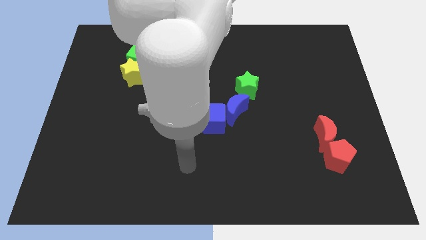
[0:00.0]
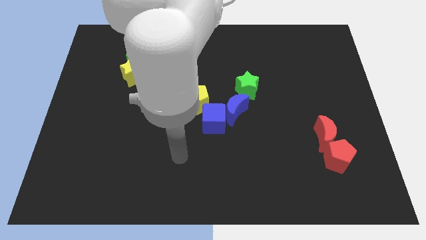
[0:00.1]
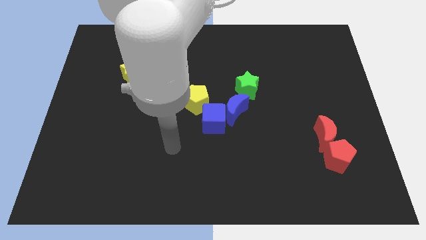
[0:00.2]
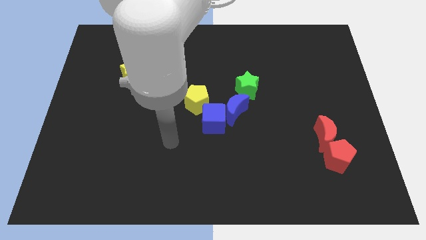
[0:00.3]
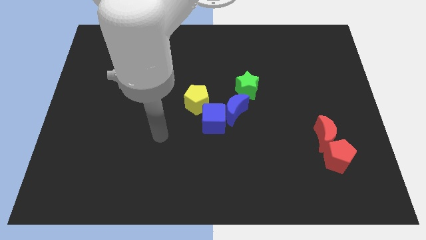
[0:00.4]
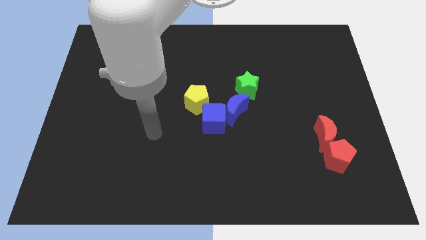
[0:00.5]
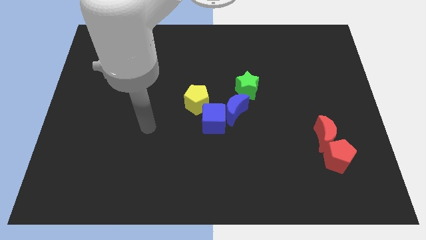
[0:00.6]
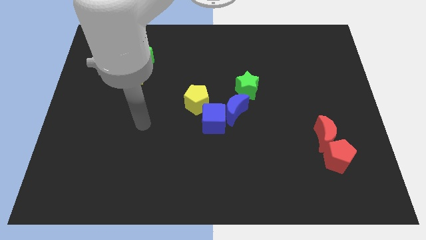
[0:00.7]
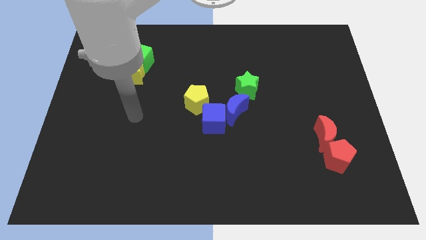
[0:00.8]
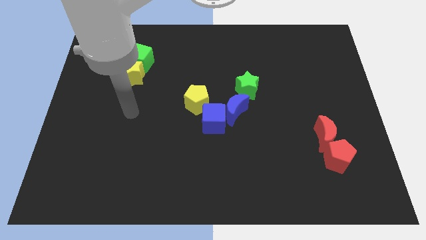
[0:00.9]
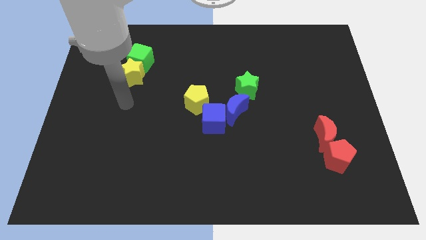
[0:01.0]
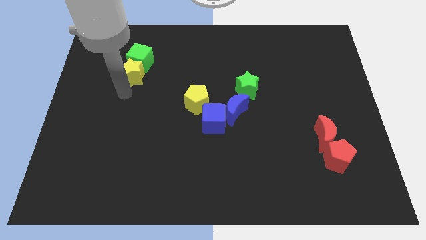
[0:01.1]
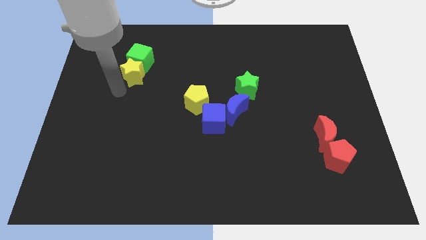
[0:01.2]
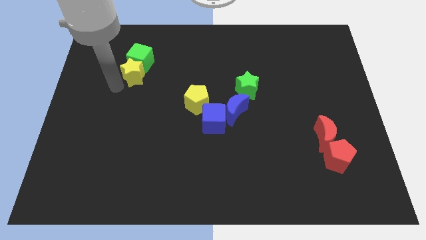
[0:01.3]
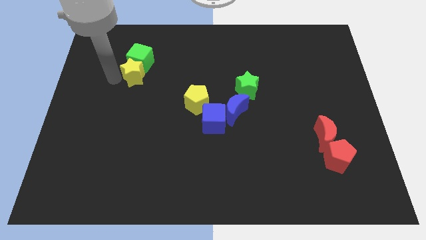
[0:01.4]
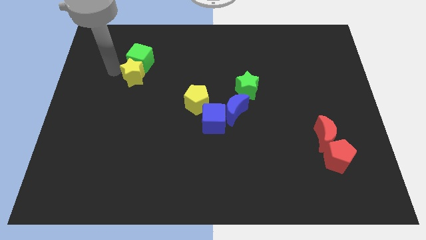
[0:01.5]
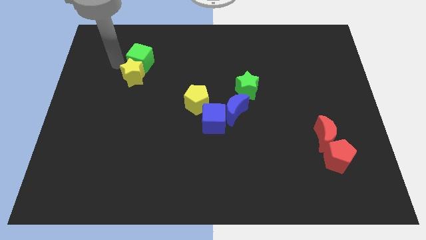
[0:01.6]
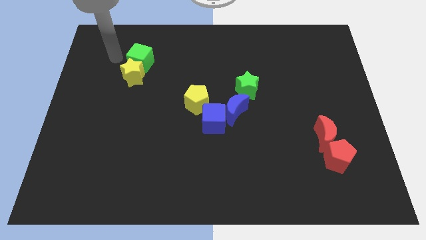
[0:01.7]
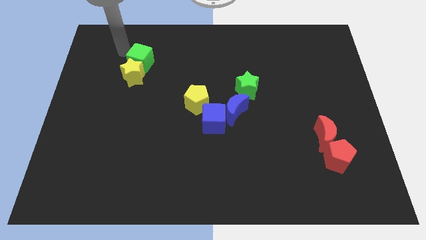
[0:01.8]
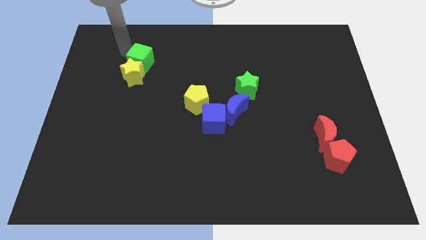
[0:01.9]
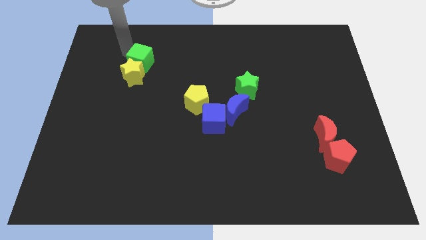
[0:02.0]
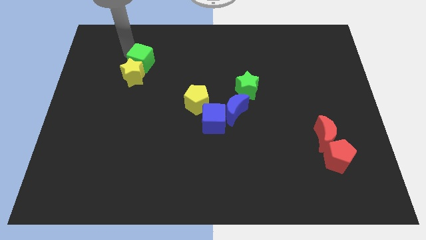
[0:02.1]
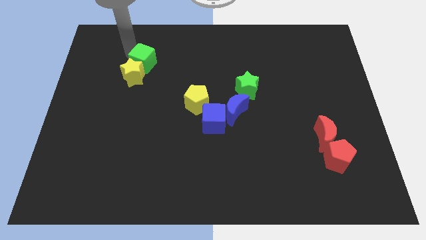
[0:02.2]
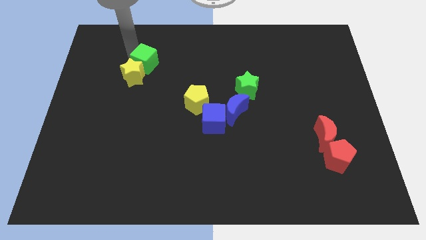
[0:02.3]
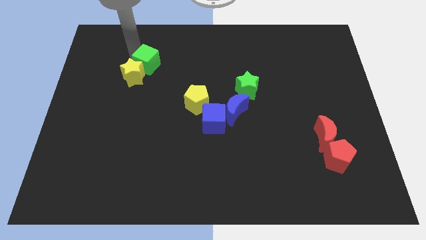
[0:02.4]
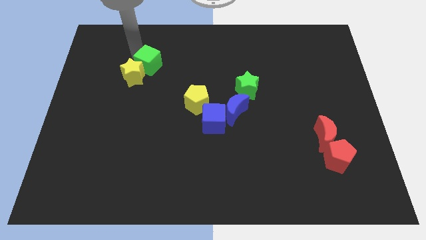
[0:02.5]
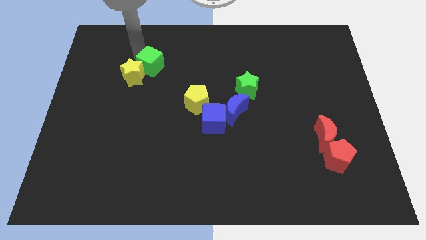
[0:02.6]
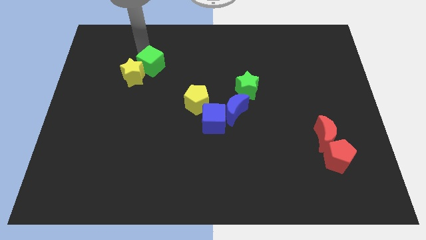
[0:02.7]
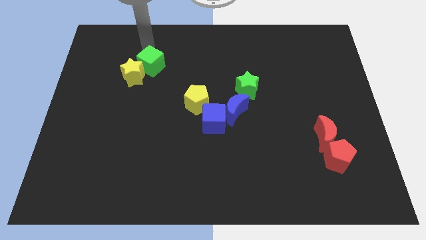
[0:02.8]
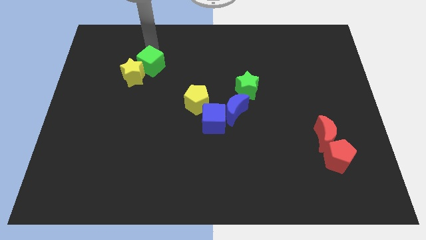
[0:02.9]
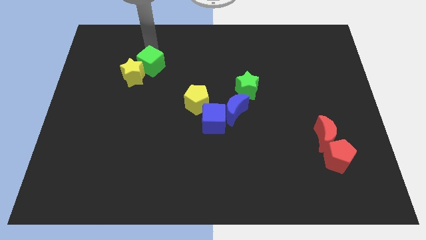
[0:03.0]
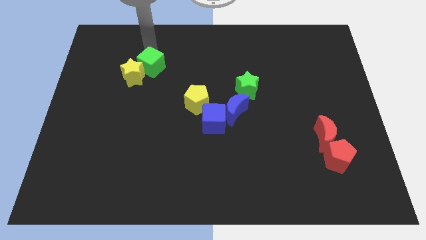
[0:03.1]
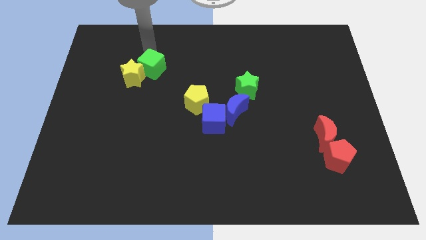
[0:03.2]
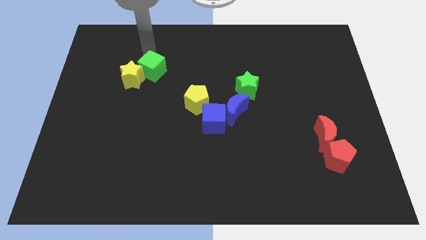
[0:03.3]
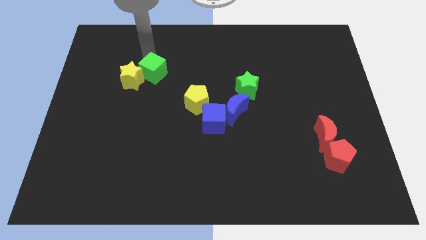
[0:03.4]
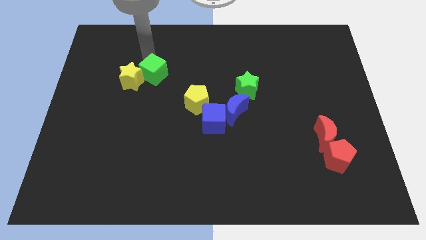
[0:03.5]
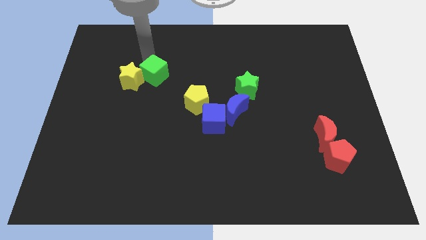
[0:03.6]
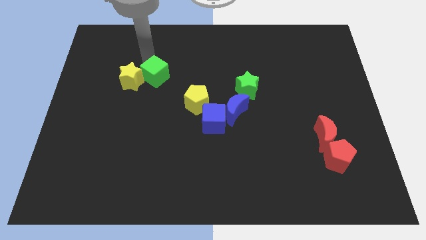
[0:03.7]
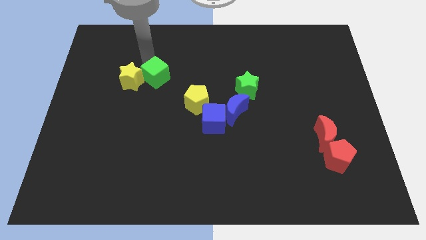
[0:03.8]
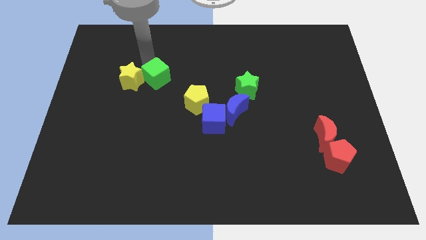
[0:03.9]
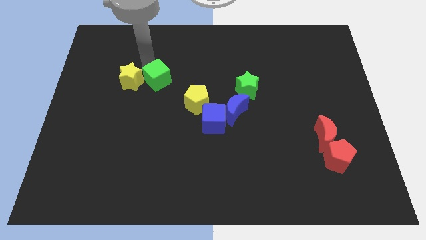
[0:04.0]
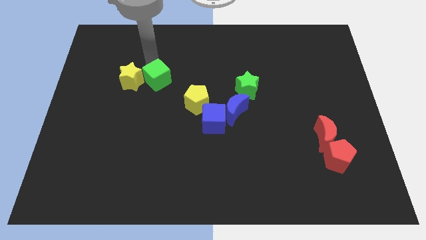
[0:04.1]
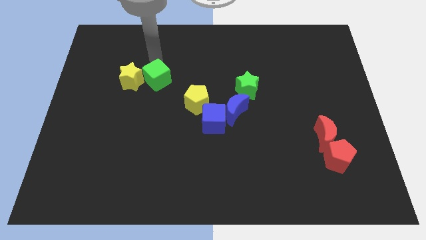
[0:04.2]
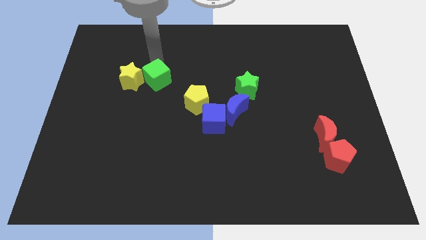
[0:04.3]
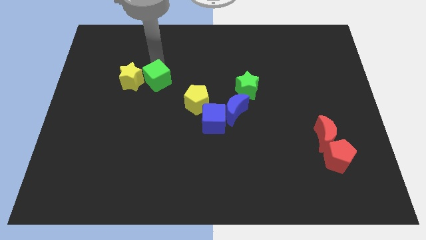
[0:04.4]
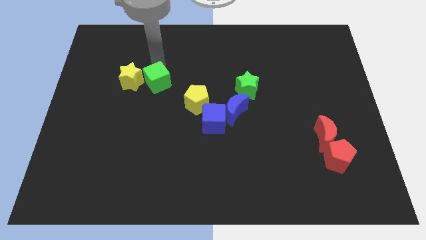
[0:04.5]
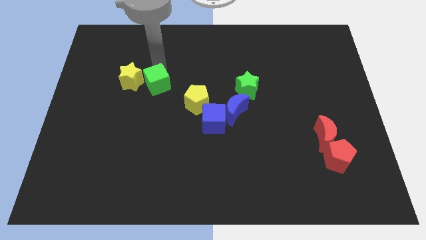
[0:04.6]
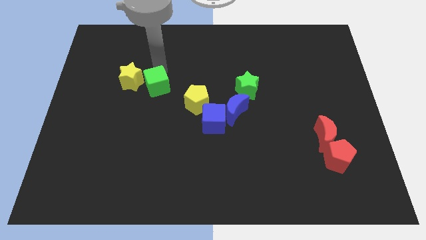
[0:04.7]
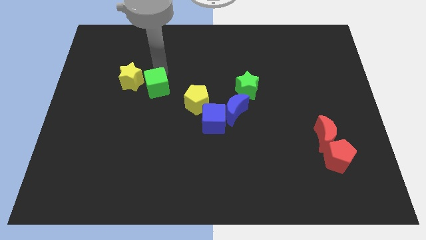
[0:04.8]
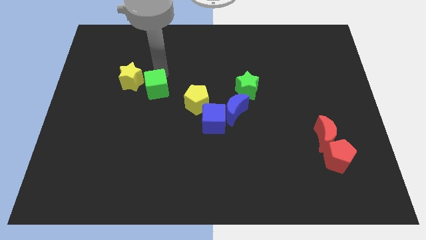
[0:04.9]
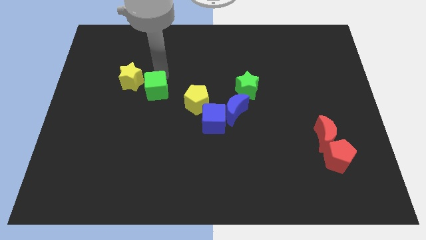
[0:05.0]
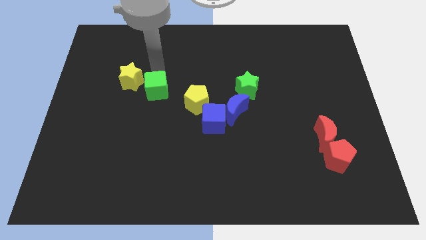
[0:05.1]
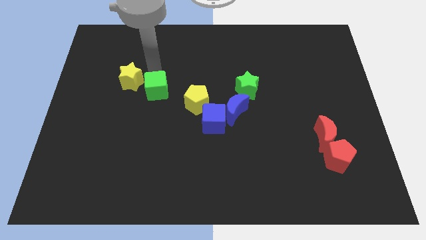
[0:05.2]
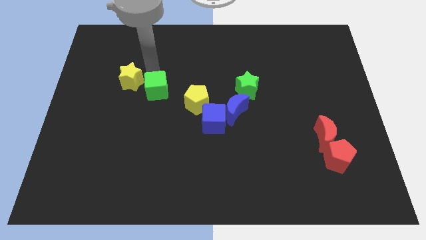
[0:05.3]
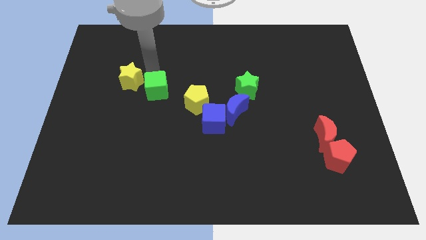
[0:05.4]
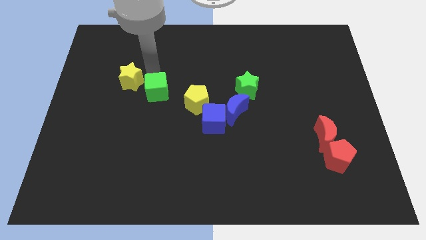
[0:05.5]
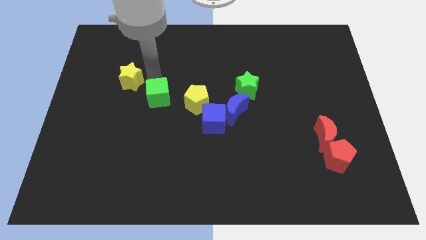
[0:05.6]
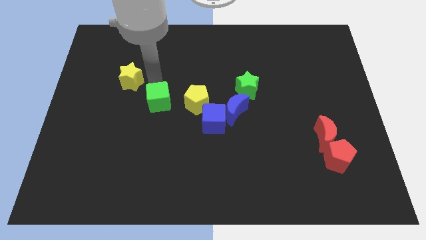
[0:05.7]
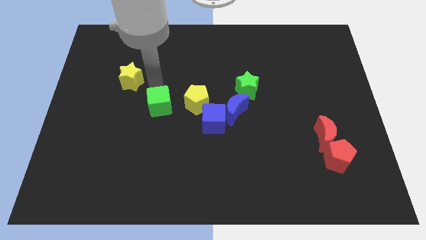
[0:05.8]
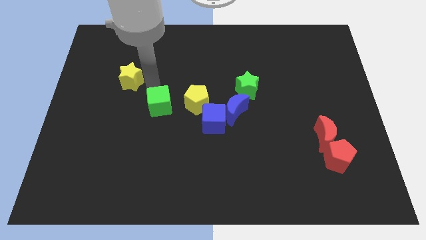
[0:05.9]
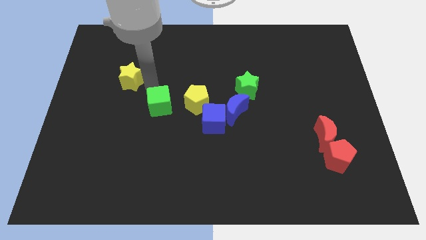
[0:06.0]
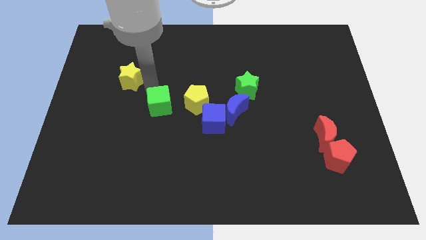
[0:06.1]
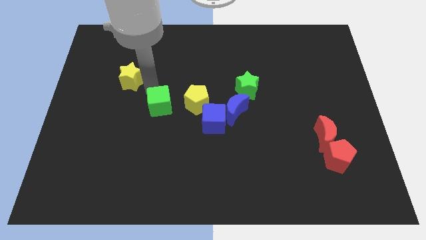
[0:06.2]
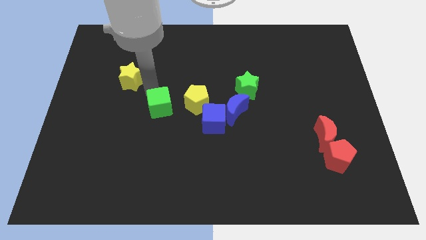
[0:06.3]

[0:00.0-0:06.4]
move the green cube left of the blue cube

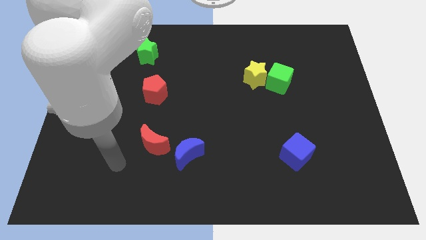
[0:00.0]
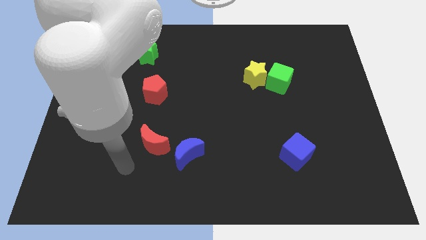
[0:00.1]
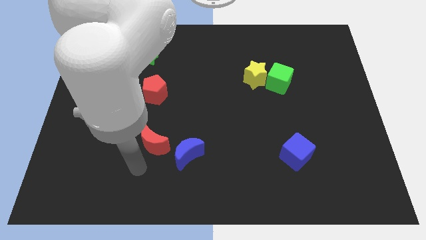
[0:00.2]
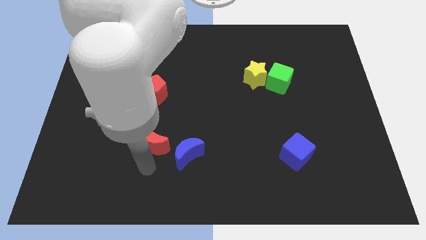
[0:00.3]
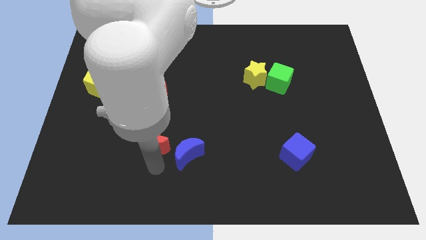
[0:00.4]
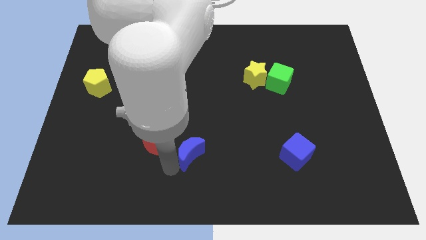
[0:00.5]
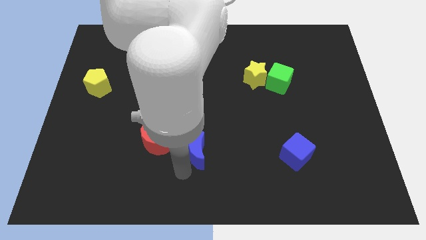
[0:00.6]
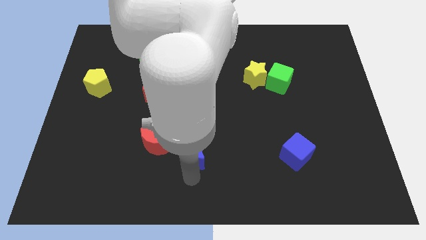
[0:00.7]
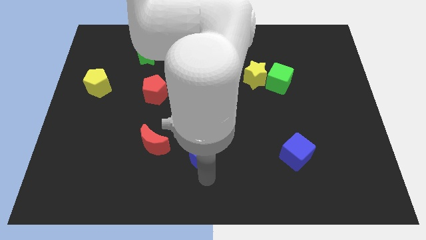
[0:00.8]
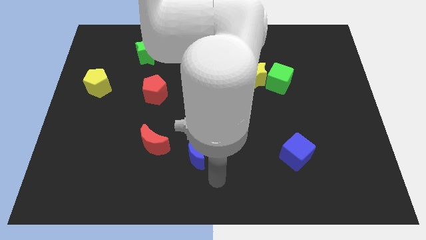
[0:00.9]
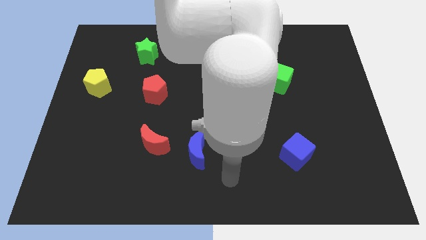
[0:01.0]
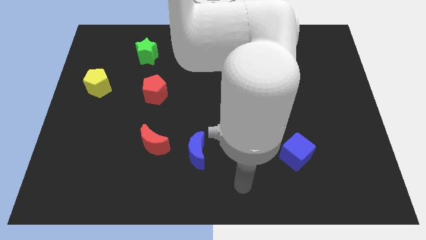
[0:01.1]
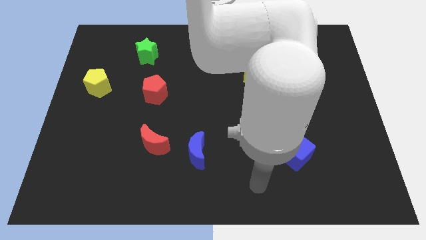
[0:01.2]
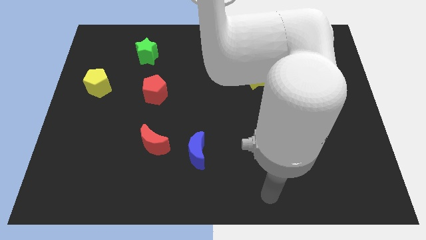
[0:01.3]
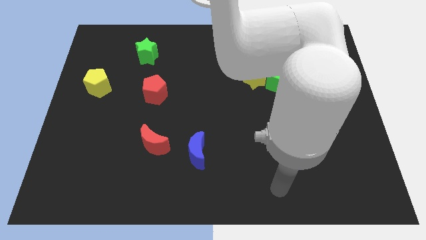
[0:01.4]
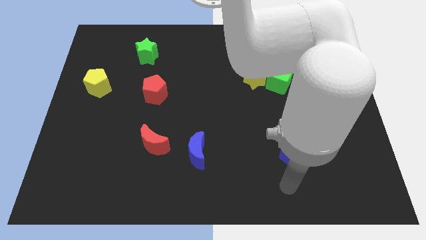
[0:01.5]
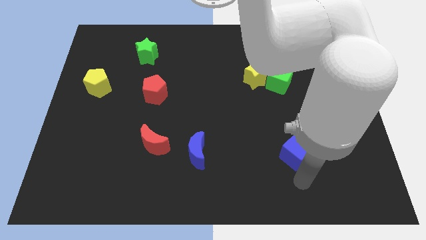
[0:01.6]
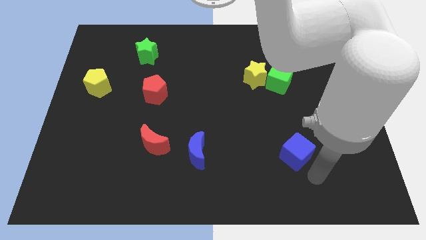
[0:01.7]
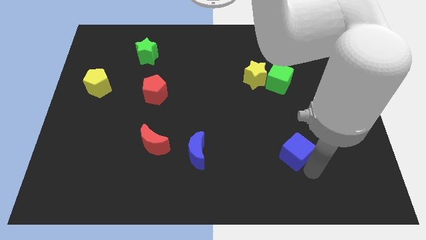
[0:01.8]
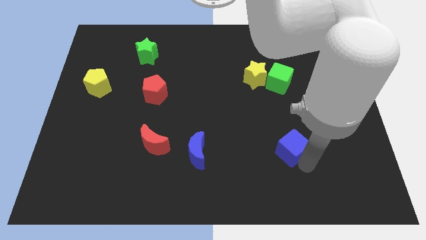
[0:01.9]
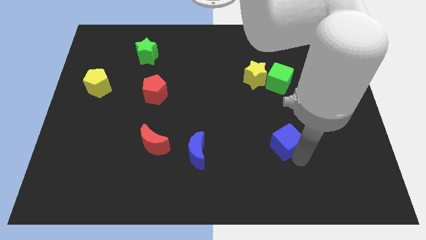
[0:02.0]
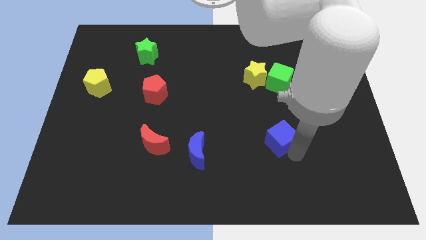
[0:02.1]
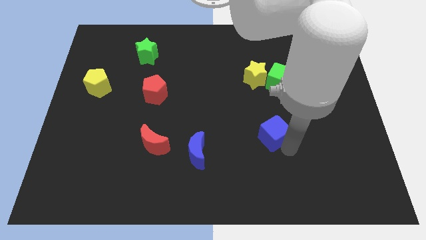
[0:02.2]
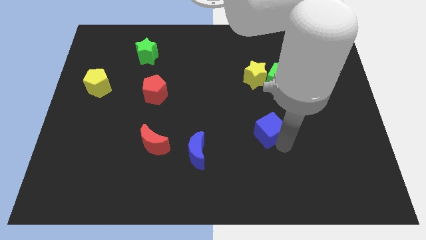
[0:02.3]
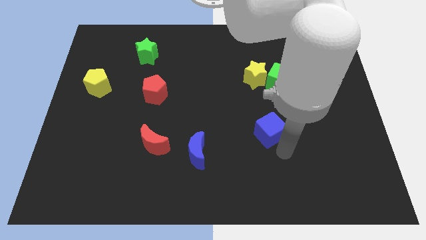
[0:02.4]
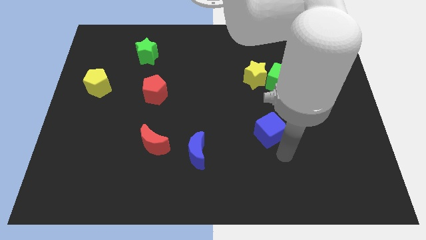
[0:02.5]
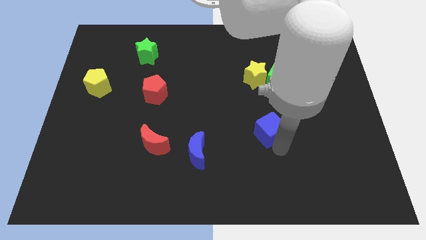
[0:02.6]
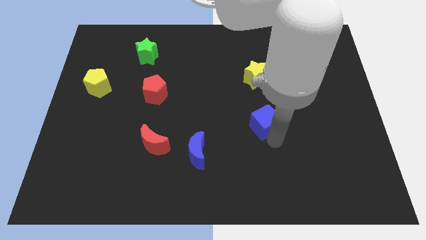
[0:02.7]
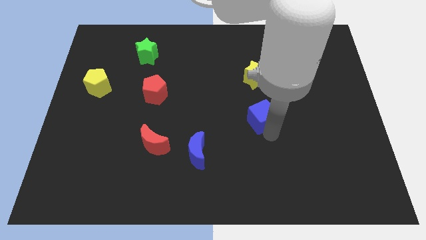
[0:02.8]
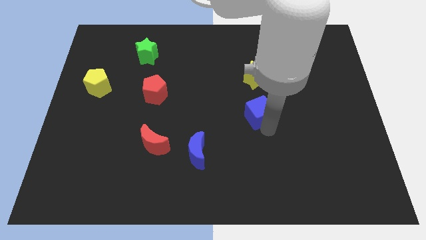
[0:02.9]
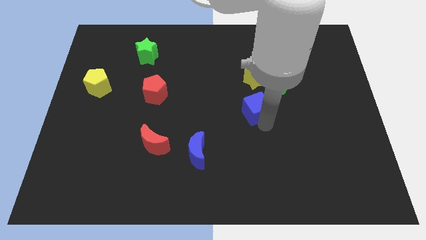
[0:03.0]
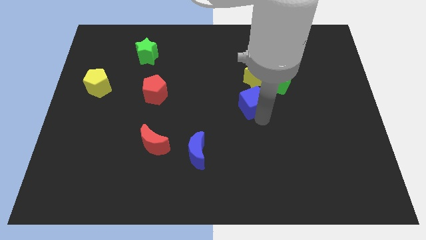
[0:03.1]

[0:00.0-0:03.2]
slide the blue cube to the bottom left of the yellow star
